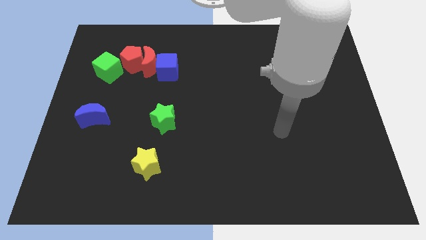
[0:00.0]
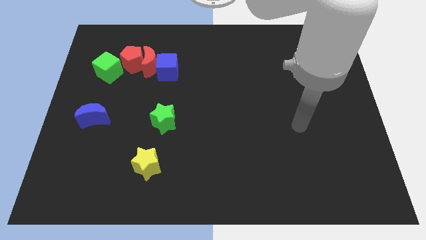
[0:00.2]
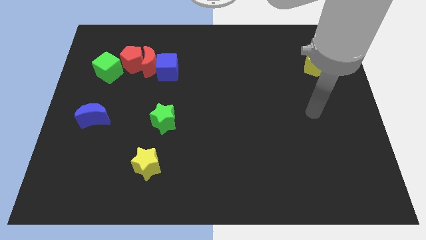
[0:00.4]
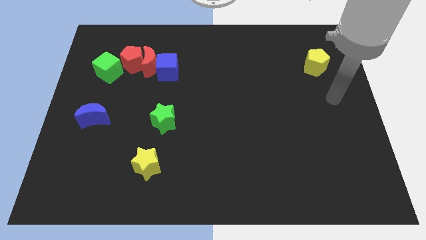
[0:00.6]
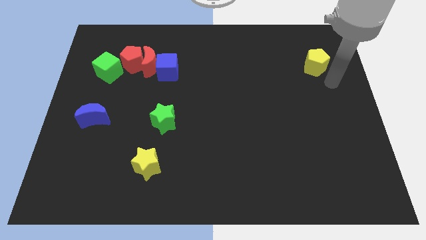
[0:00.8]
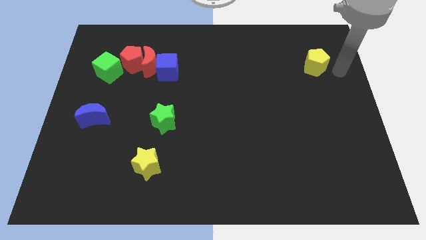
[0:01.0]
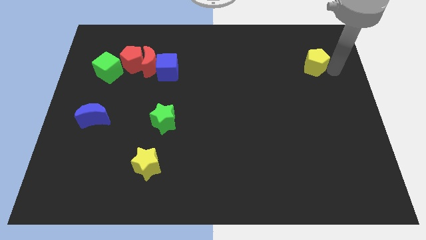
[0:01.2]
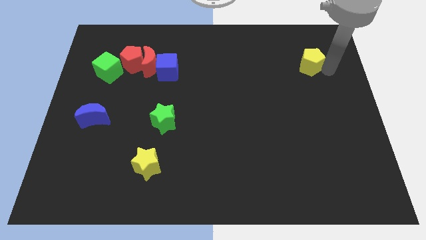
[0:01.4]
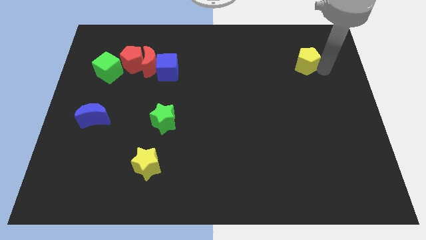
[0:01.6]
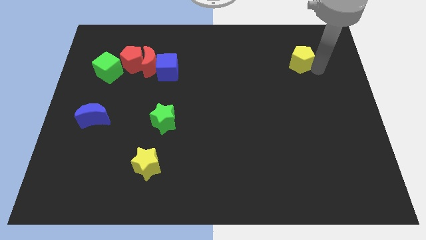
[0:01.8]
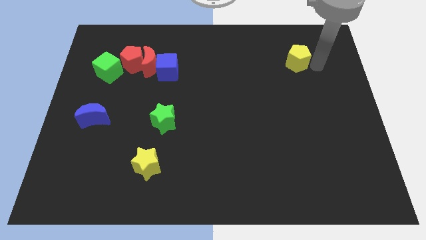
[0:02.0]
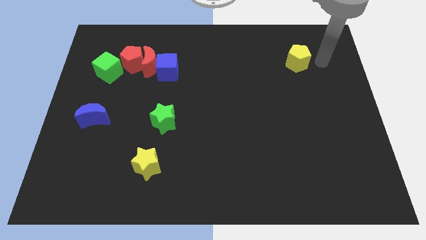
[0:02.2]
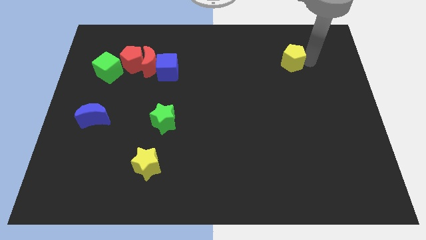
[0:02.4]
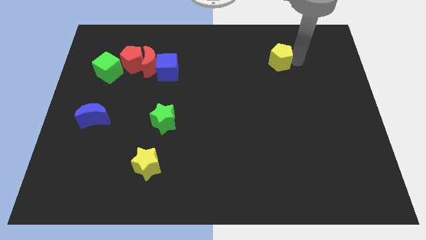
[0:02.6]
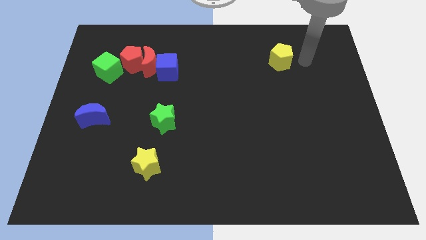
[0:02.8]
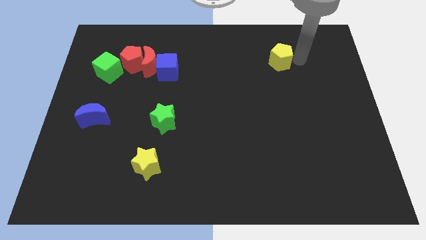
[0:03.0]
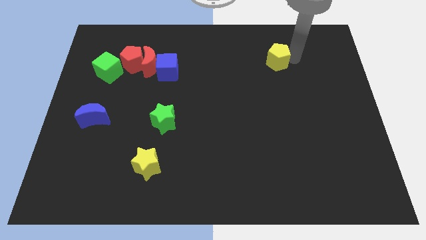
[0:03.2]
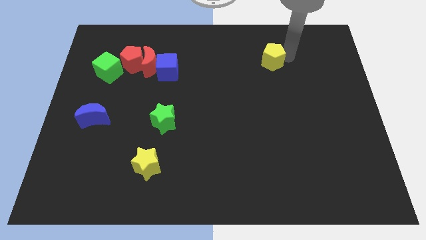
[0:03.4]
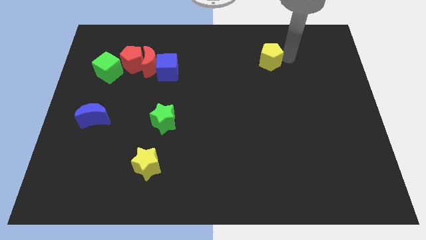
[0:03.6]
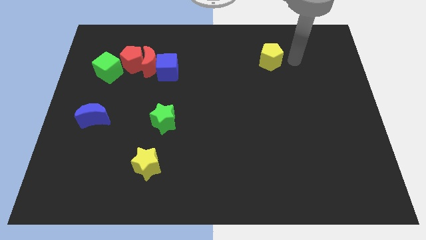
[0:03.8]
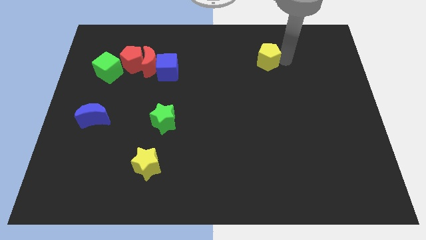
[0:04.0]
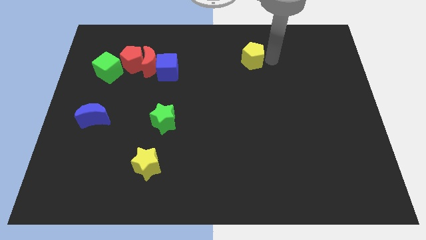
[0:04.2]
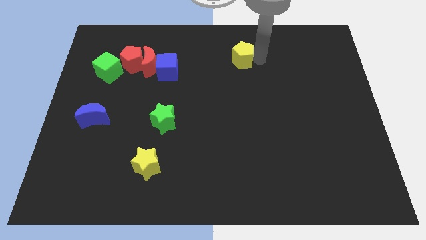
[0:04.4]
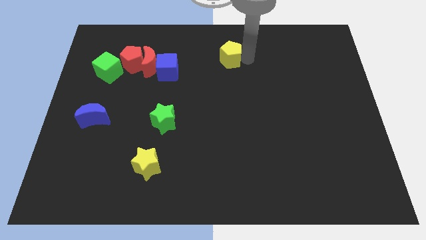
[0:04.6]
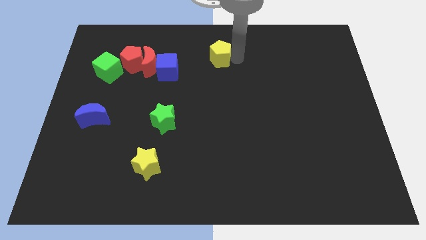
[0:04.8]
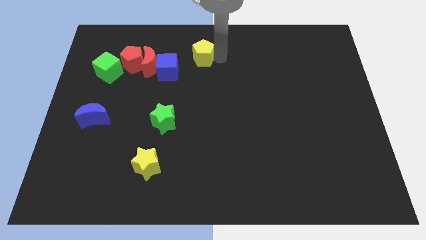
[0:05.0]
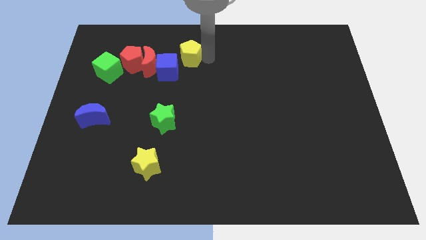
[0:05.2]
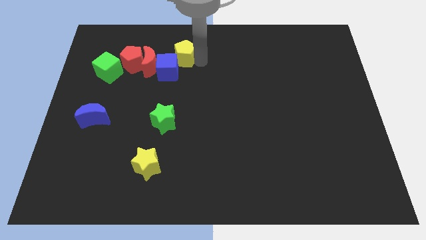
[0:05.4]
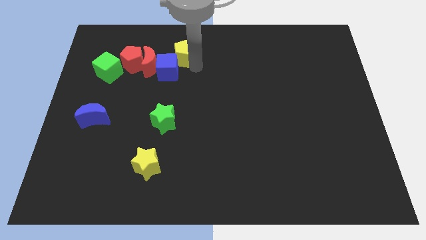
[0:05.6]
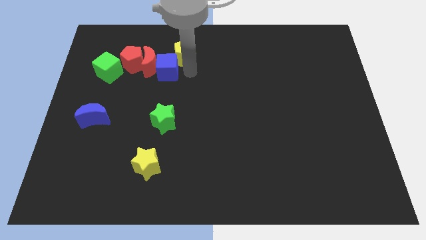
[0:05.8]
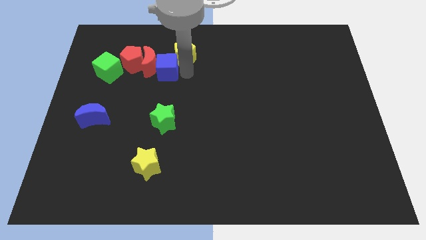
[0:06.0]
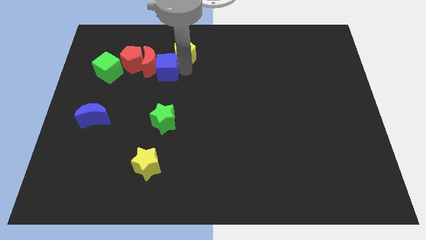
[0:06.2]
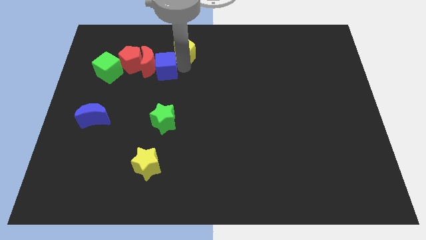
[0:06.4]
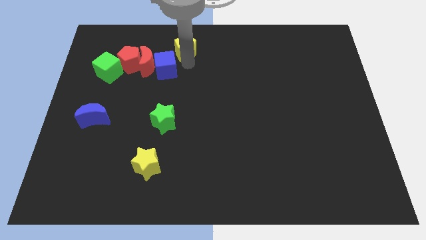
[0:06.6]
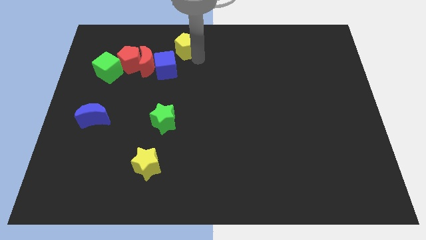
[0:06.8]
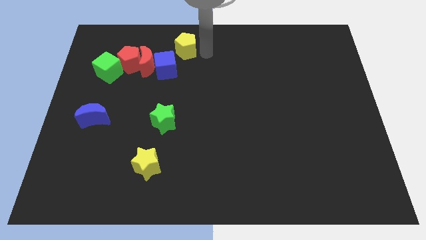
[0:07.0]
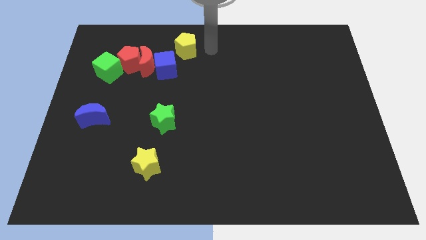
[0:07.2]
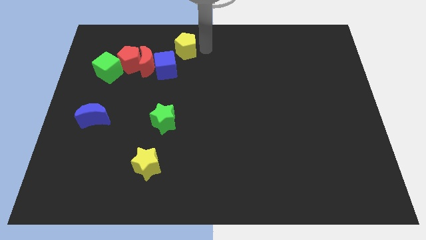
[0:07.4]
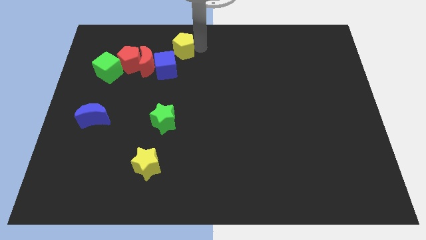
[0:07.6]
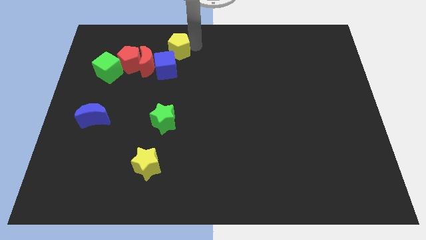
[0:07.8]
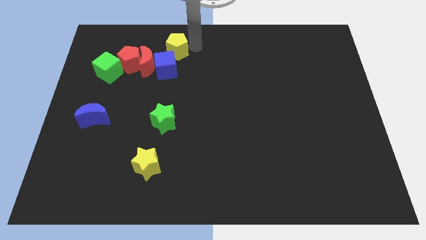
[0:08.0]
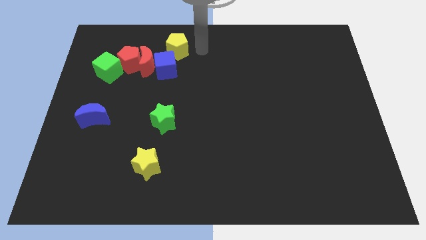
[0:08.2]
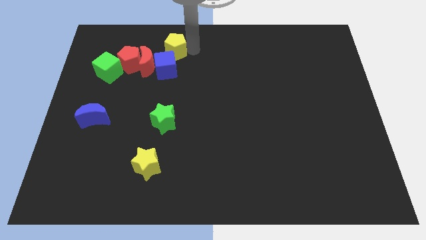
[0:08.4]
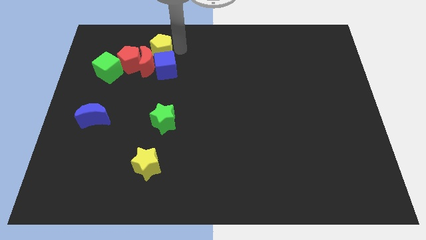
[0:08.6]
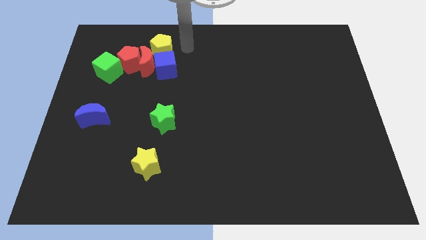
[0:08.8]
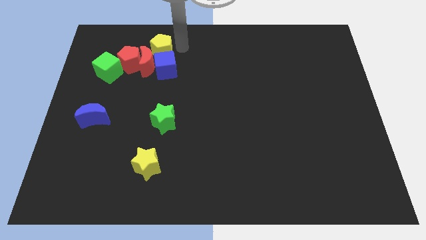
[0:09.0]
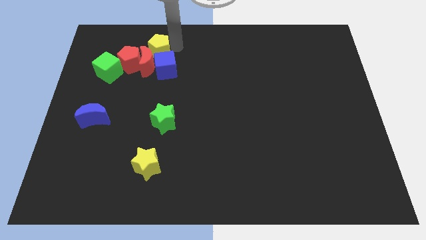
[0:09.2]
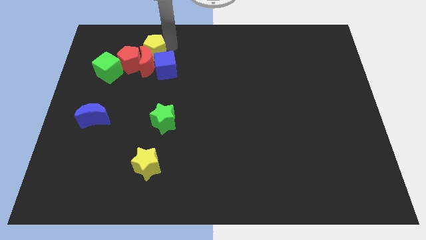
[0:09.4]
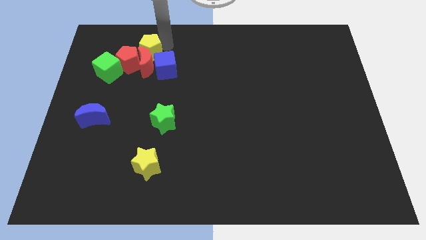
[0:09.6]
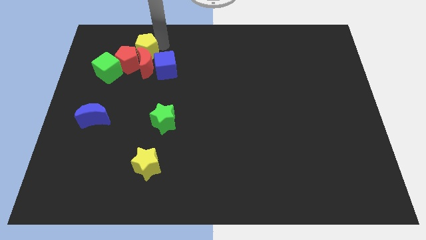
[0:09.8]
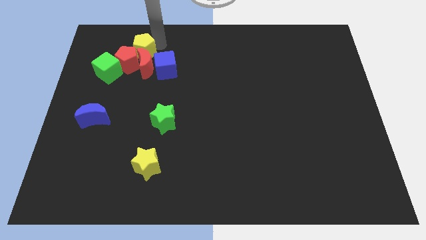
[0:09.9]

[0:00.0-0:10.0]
push the yellow pentagon next to the red pentagon

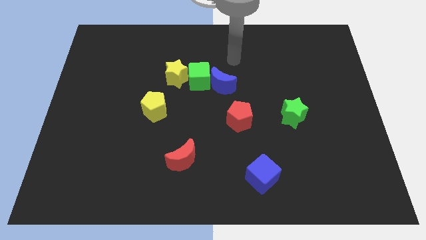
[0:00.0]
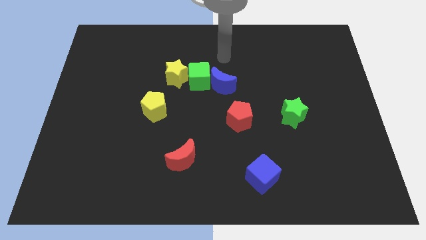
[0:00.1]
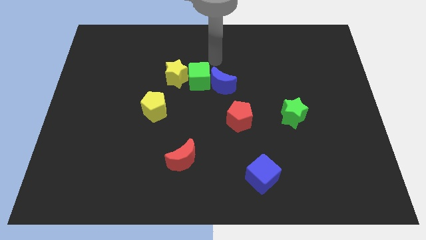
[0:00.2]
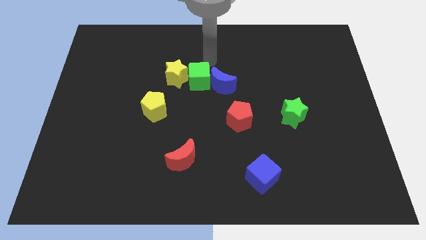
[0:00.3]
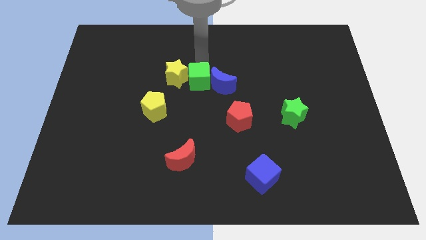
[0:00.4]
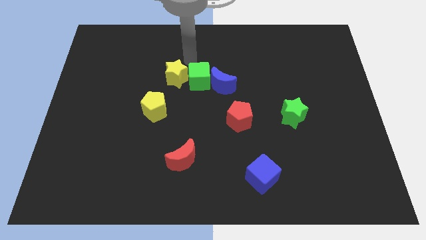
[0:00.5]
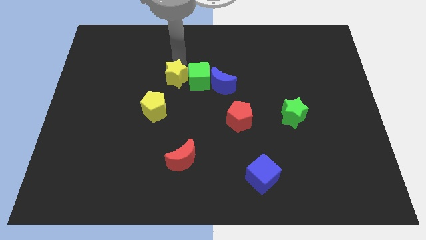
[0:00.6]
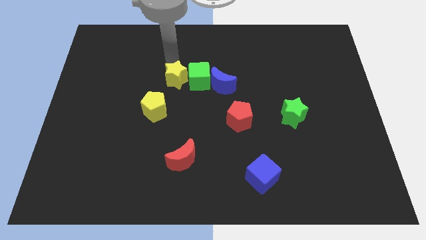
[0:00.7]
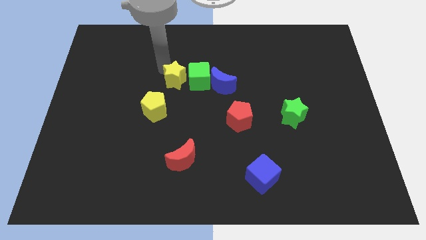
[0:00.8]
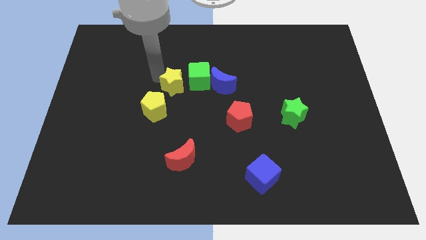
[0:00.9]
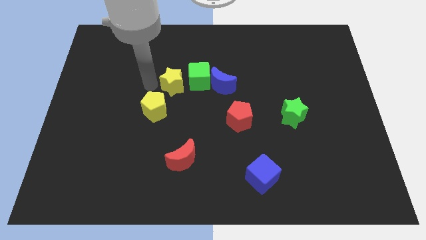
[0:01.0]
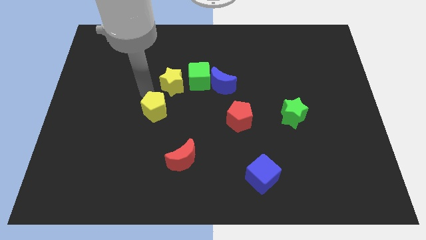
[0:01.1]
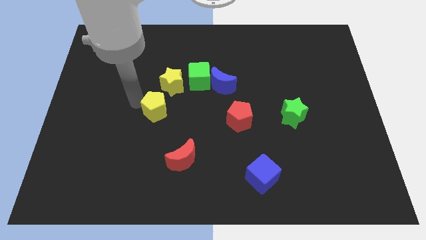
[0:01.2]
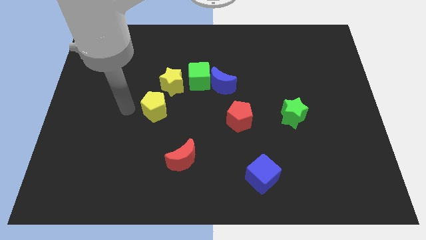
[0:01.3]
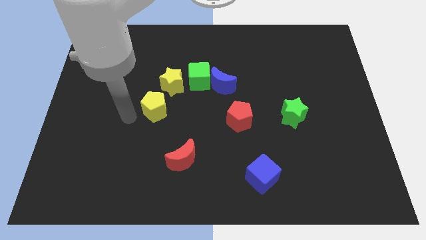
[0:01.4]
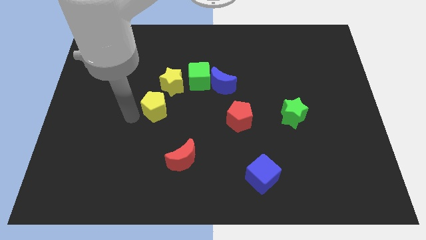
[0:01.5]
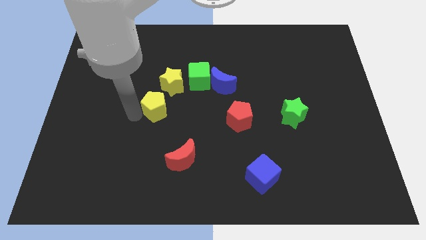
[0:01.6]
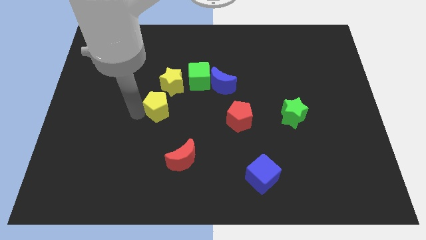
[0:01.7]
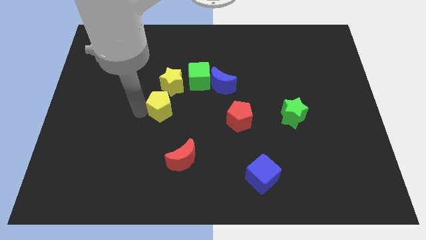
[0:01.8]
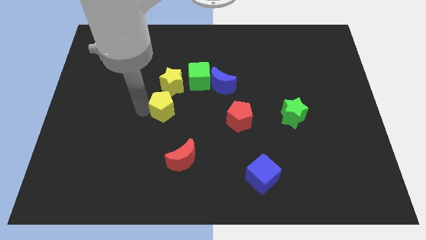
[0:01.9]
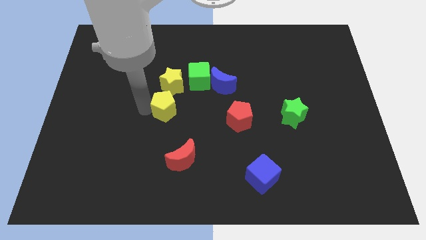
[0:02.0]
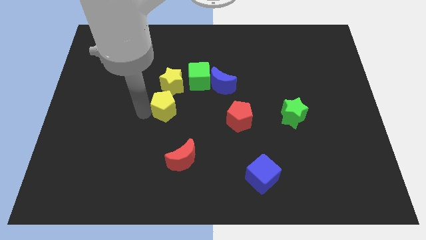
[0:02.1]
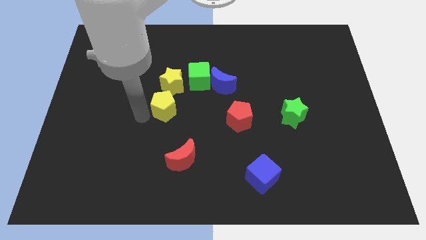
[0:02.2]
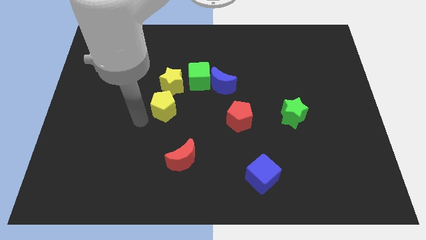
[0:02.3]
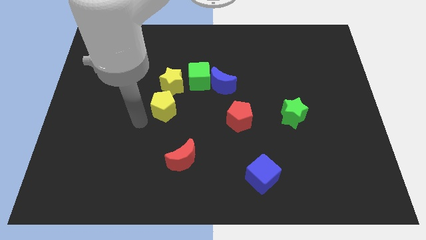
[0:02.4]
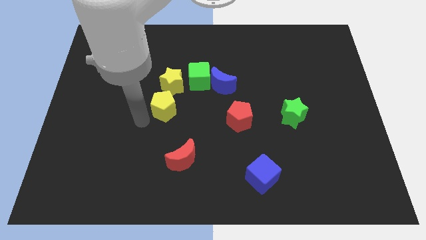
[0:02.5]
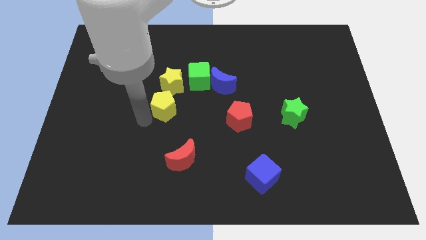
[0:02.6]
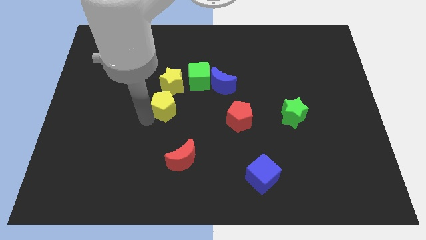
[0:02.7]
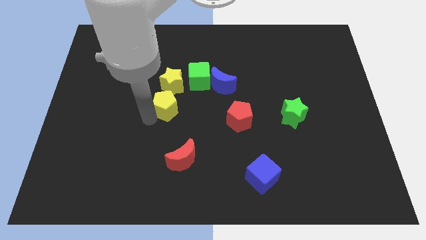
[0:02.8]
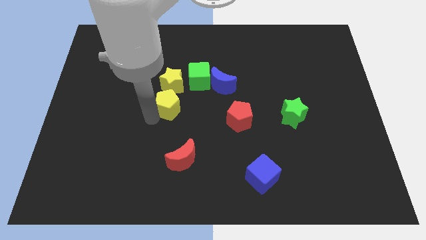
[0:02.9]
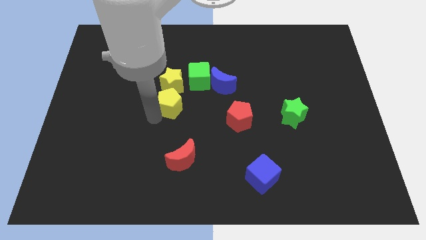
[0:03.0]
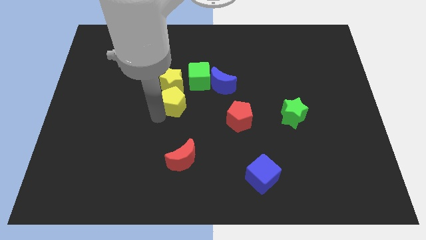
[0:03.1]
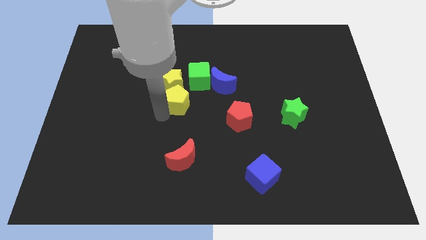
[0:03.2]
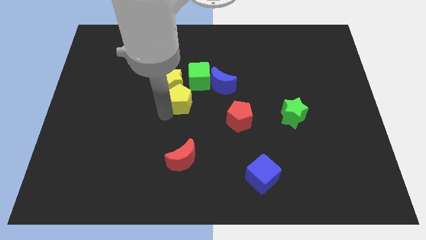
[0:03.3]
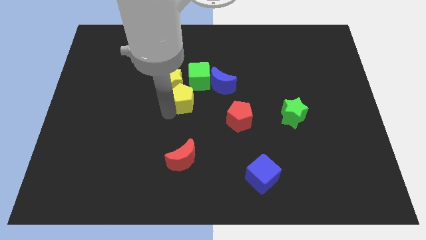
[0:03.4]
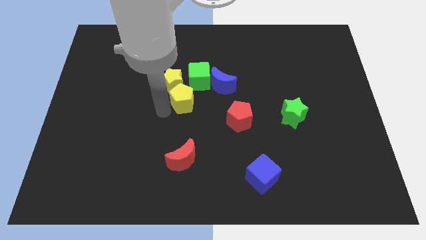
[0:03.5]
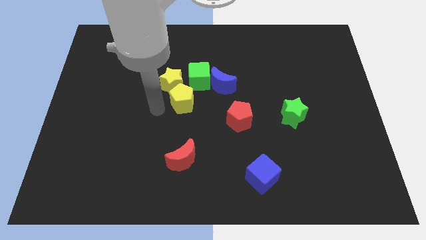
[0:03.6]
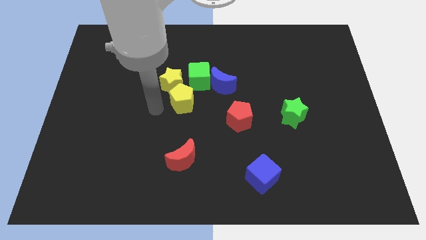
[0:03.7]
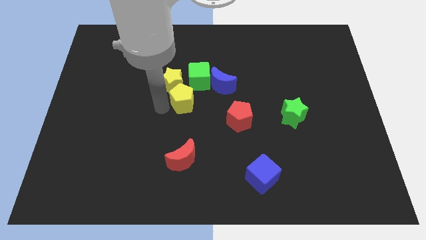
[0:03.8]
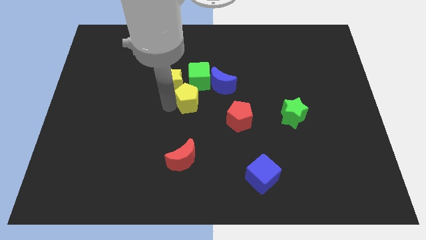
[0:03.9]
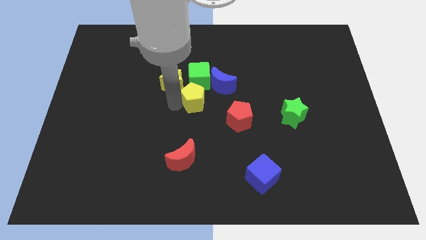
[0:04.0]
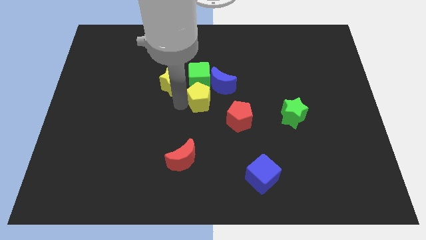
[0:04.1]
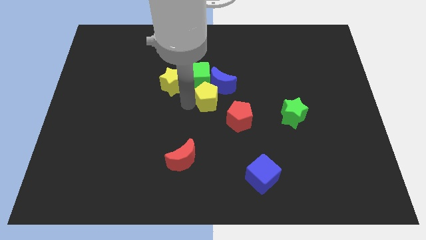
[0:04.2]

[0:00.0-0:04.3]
move the yellow pentagon next to the blue moon
